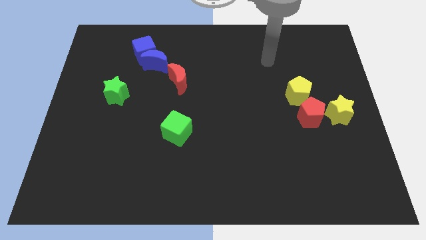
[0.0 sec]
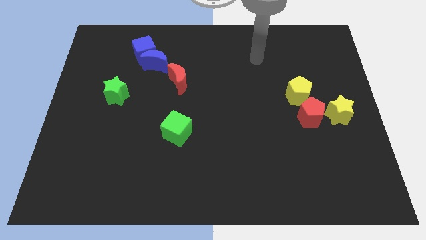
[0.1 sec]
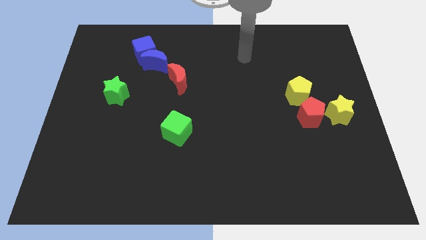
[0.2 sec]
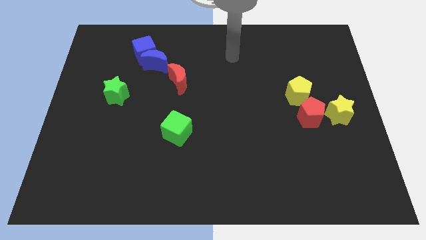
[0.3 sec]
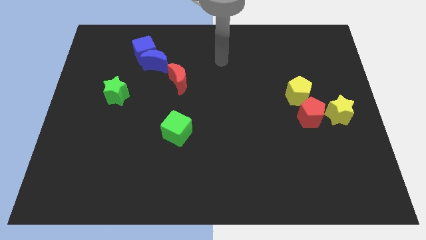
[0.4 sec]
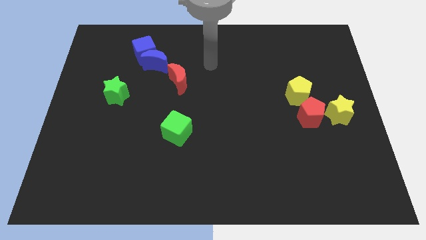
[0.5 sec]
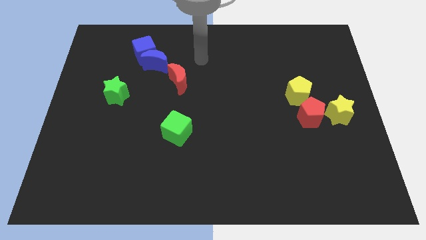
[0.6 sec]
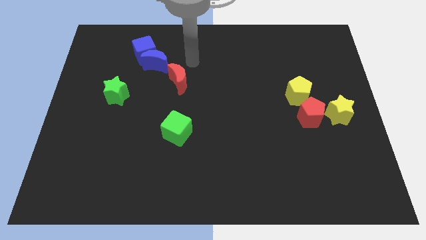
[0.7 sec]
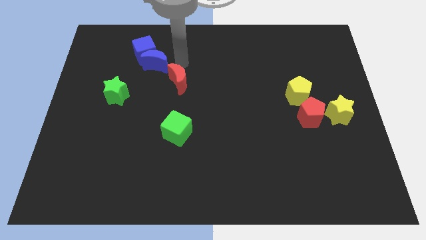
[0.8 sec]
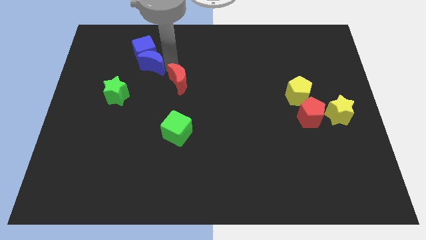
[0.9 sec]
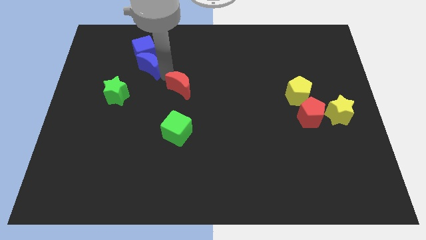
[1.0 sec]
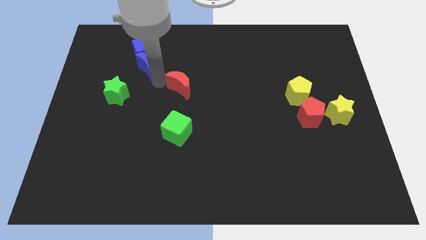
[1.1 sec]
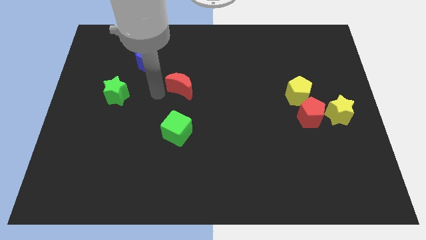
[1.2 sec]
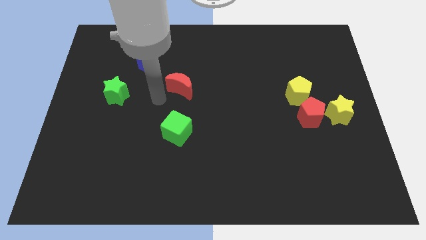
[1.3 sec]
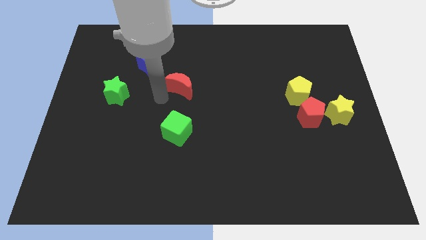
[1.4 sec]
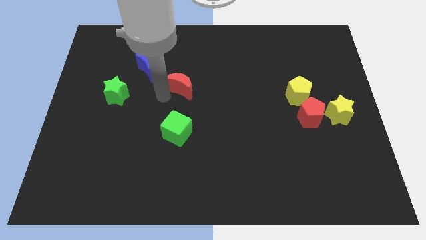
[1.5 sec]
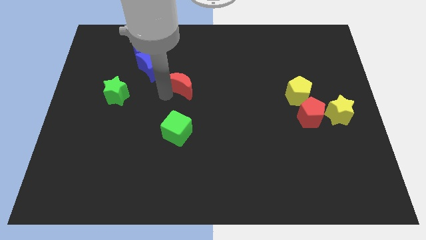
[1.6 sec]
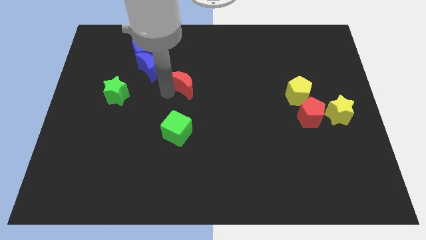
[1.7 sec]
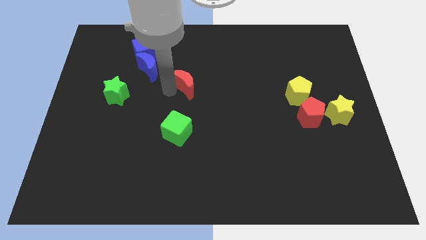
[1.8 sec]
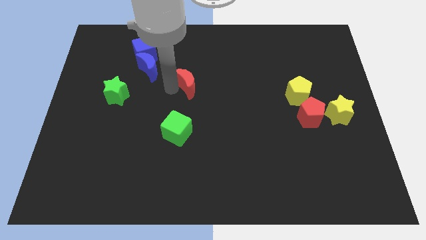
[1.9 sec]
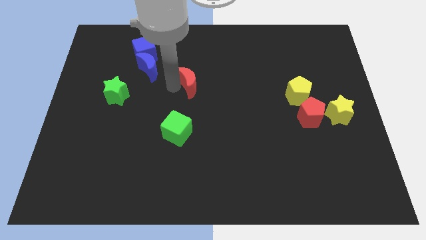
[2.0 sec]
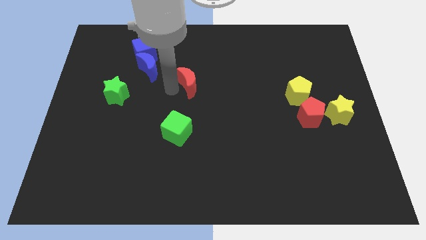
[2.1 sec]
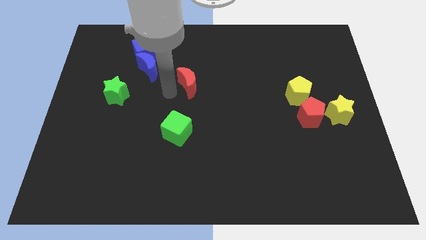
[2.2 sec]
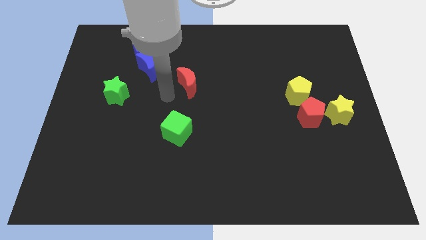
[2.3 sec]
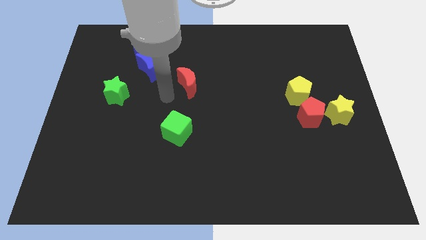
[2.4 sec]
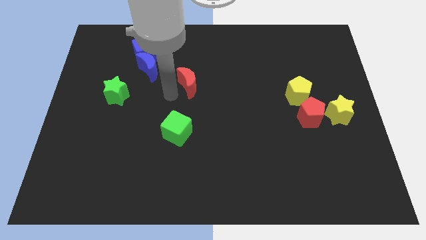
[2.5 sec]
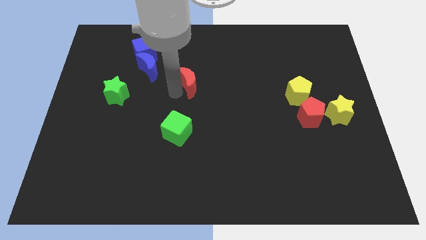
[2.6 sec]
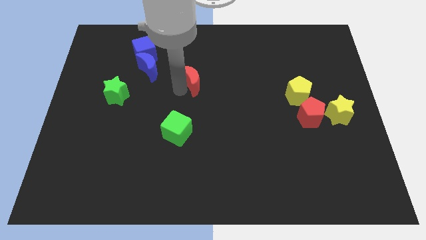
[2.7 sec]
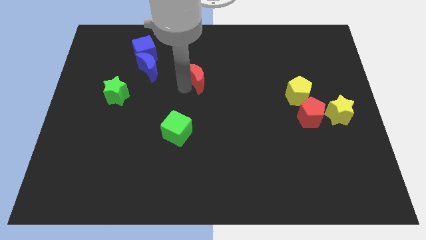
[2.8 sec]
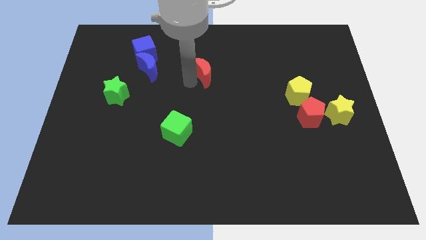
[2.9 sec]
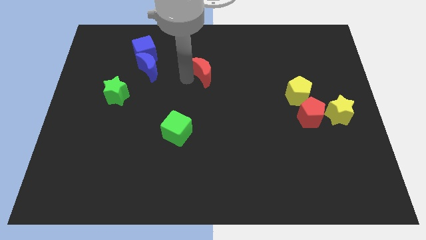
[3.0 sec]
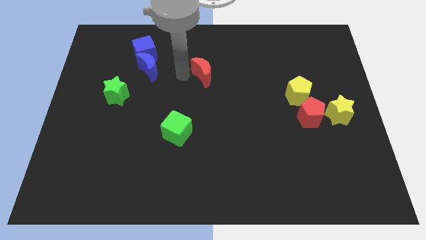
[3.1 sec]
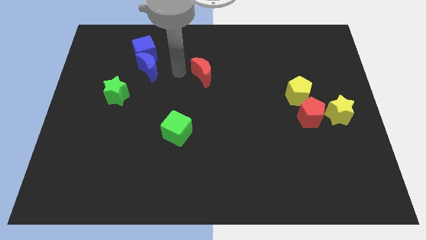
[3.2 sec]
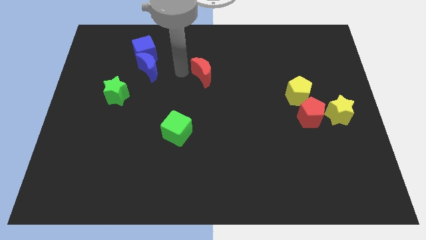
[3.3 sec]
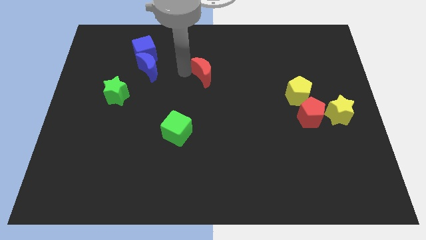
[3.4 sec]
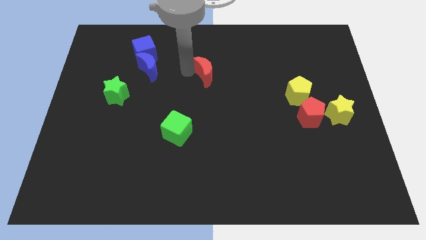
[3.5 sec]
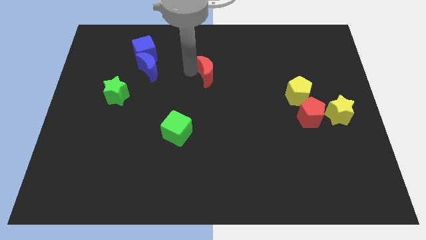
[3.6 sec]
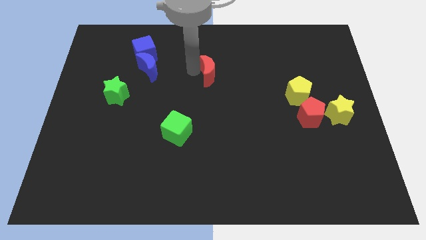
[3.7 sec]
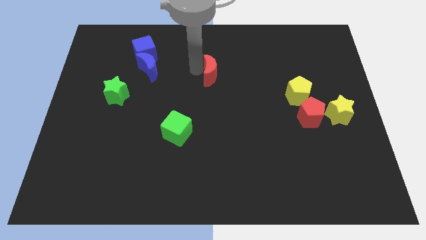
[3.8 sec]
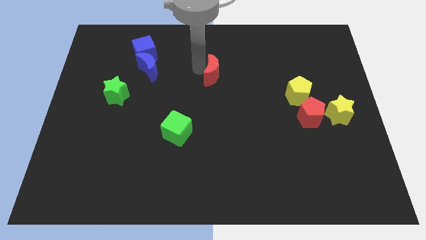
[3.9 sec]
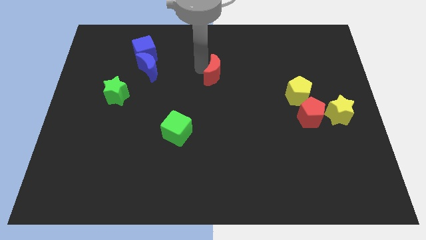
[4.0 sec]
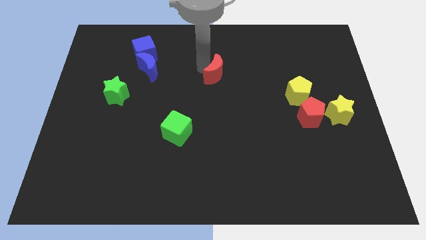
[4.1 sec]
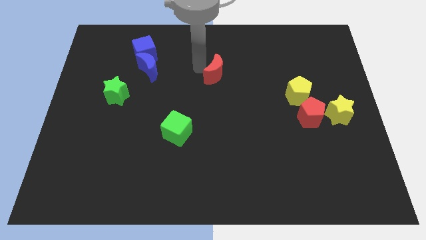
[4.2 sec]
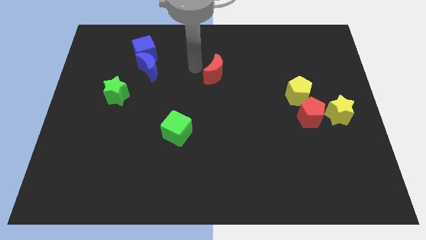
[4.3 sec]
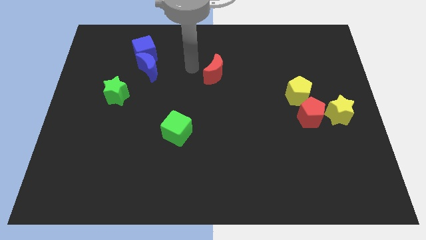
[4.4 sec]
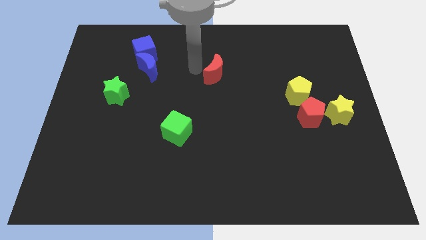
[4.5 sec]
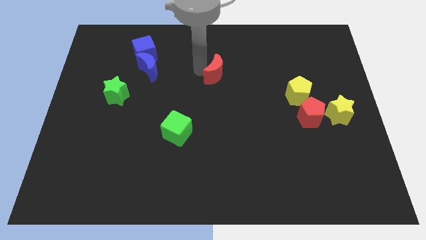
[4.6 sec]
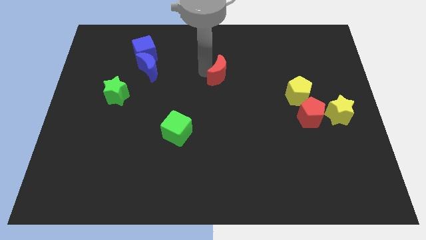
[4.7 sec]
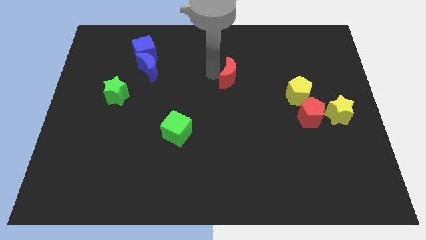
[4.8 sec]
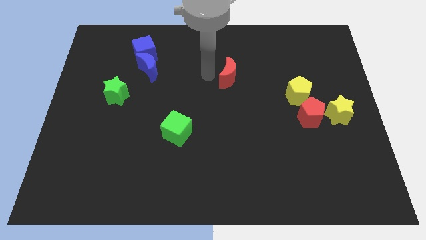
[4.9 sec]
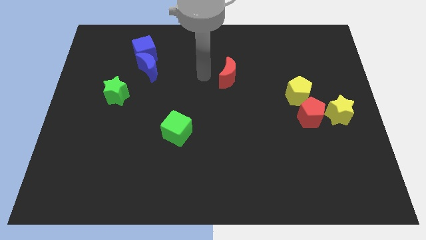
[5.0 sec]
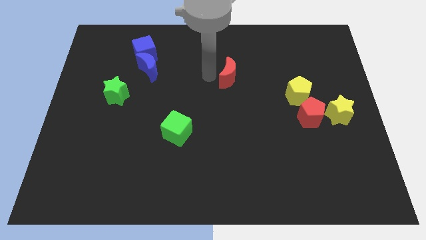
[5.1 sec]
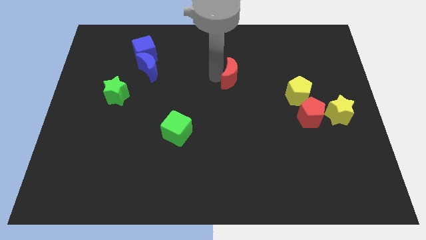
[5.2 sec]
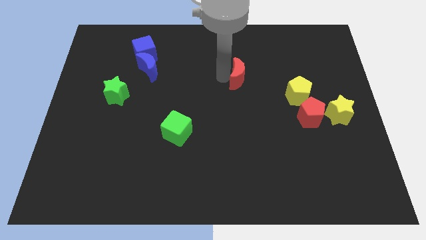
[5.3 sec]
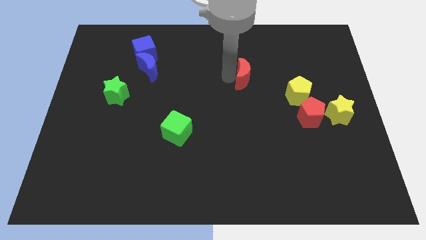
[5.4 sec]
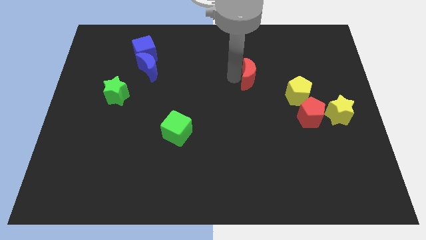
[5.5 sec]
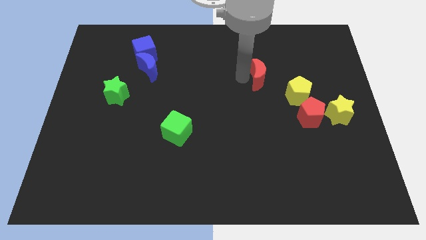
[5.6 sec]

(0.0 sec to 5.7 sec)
slide the red moon right

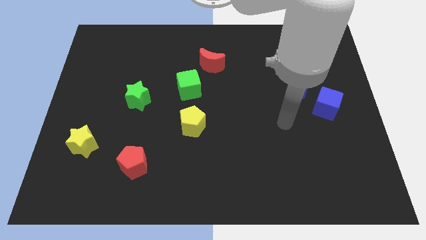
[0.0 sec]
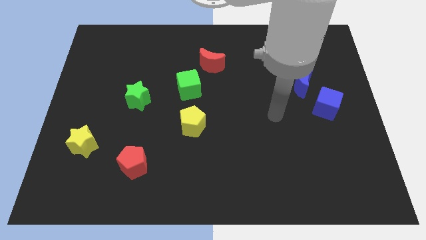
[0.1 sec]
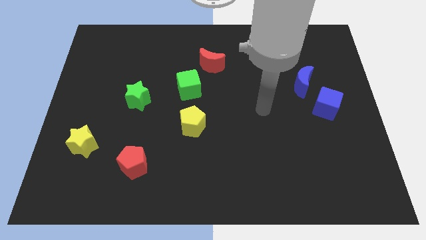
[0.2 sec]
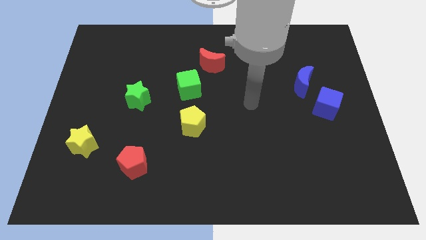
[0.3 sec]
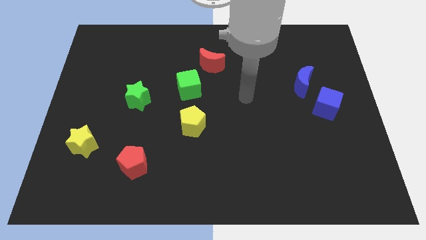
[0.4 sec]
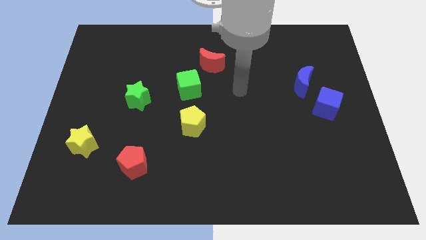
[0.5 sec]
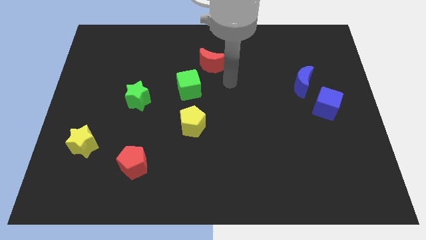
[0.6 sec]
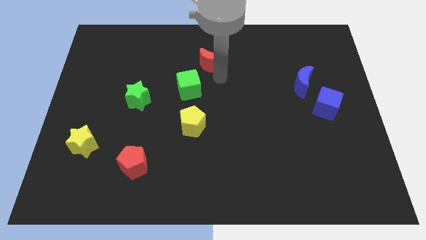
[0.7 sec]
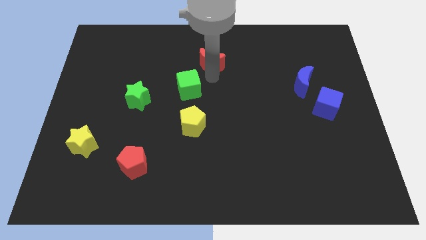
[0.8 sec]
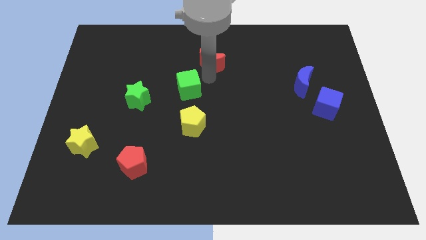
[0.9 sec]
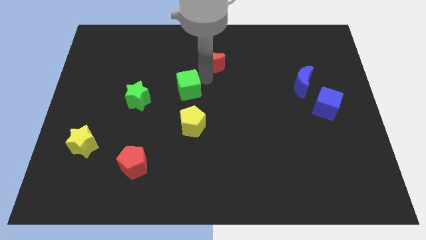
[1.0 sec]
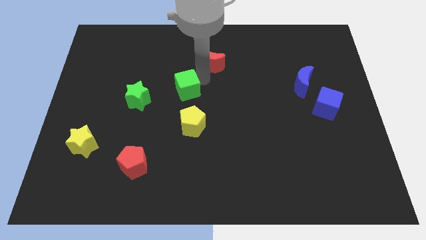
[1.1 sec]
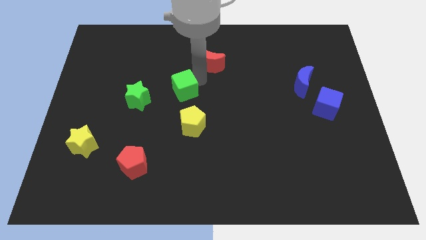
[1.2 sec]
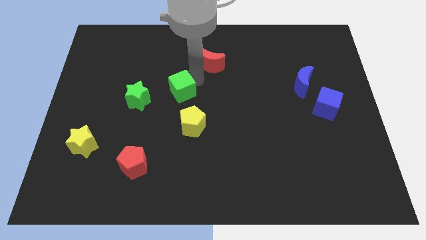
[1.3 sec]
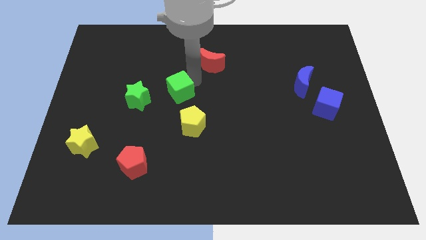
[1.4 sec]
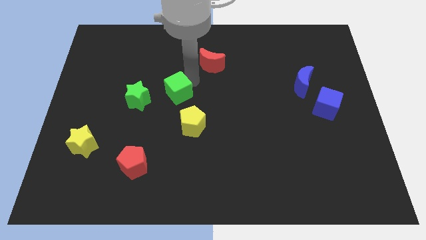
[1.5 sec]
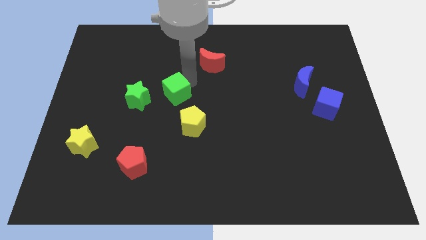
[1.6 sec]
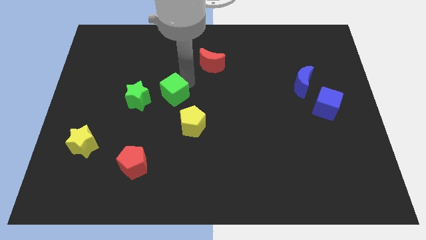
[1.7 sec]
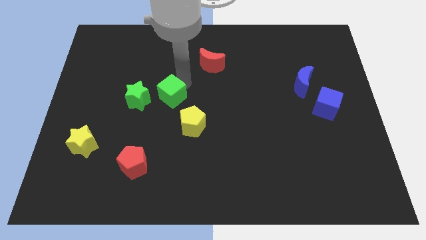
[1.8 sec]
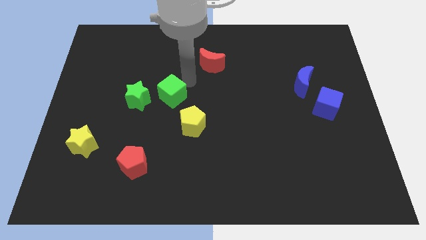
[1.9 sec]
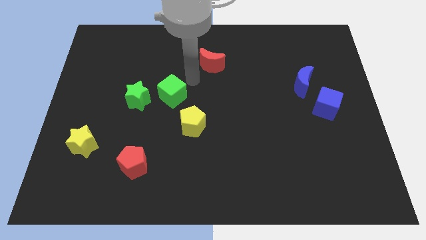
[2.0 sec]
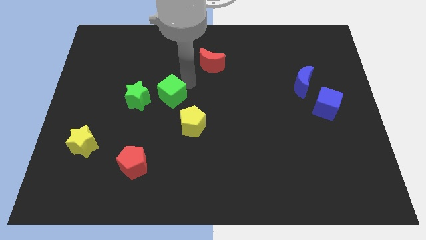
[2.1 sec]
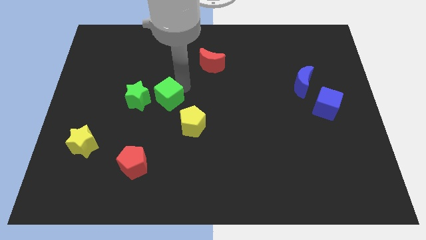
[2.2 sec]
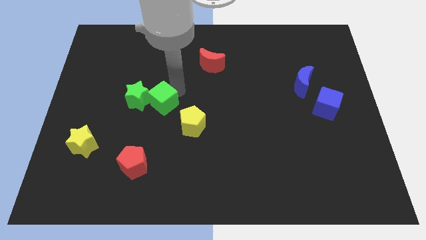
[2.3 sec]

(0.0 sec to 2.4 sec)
slightly push the green cube downwards and left
